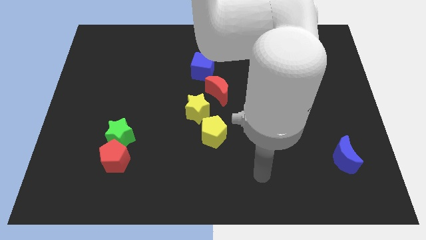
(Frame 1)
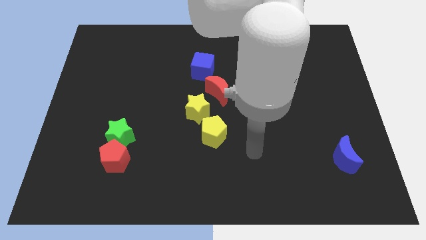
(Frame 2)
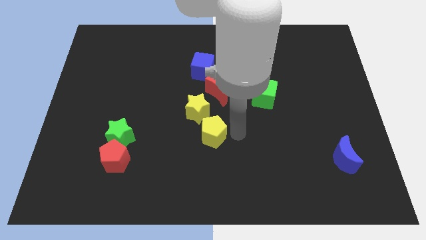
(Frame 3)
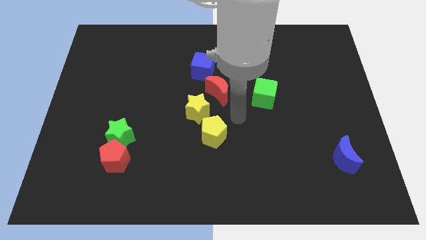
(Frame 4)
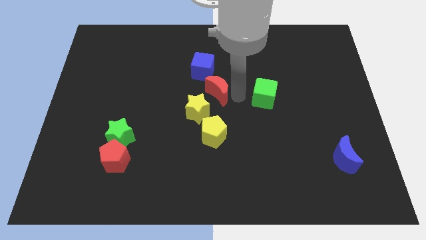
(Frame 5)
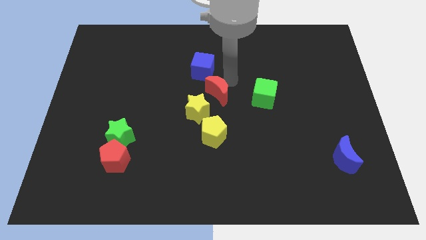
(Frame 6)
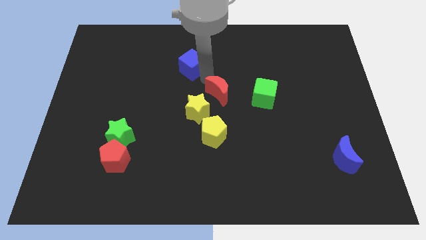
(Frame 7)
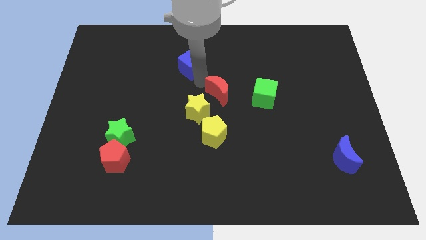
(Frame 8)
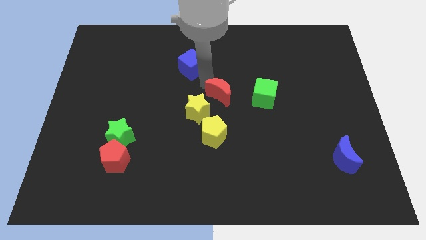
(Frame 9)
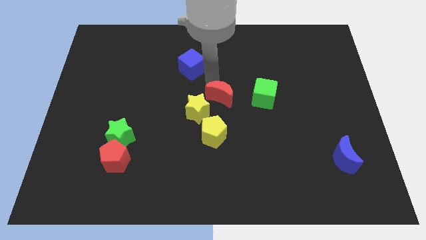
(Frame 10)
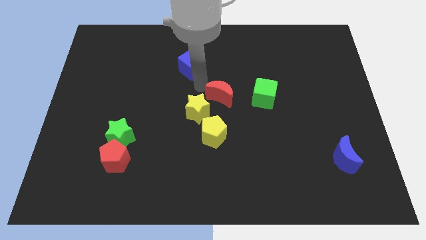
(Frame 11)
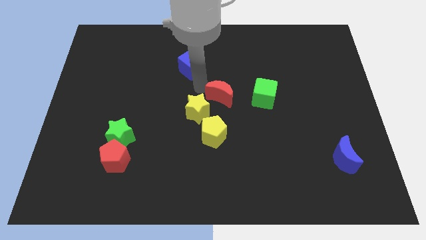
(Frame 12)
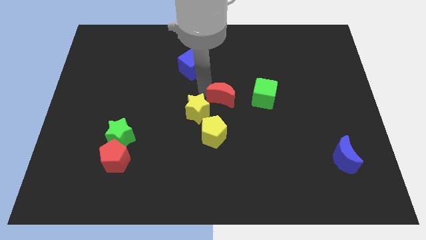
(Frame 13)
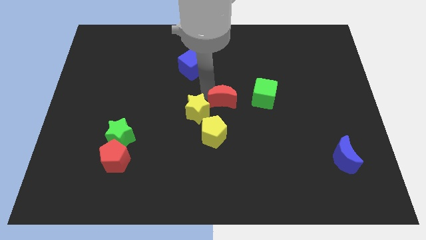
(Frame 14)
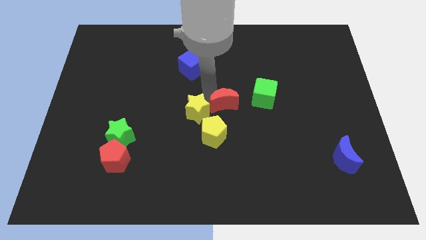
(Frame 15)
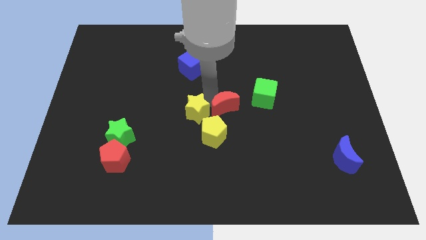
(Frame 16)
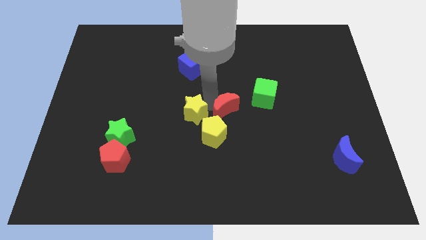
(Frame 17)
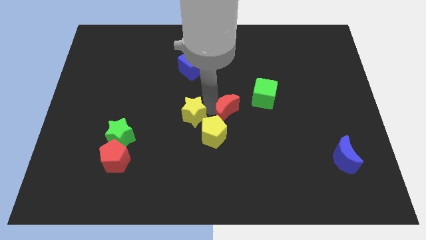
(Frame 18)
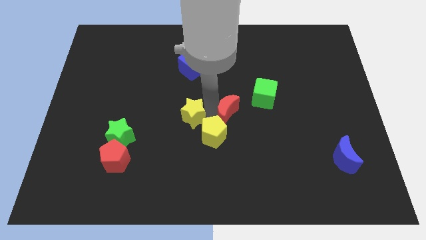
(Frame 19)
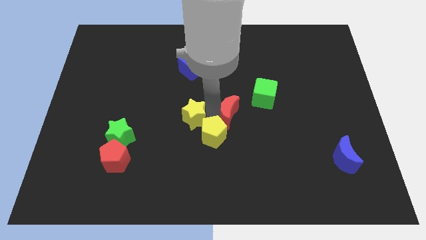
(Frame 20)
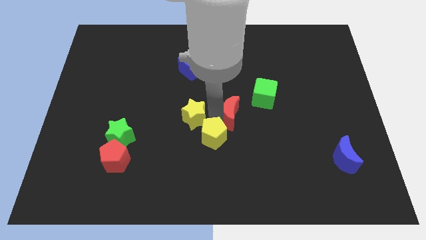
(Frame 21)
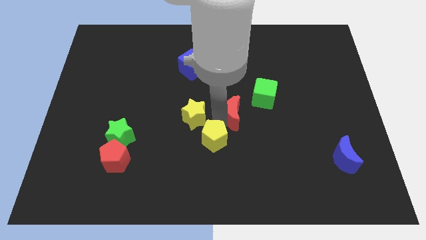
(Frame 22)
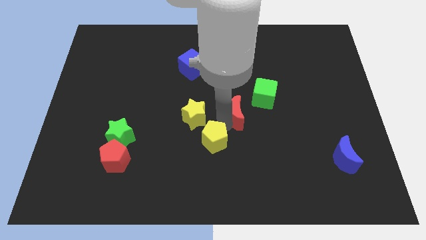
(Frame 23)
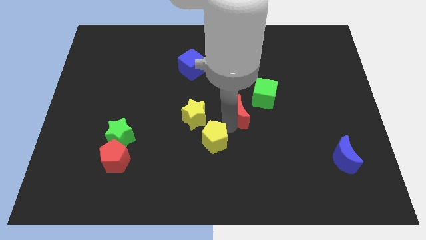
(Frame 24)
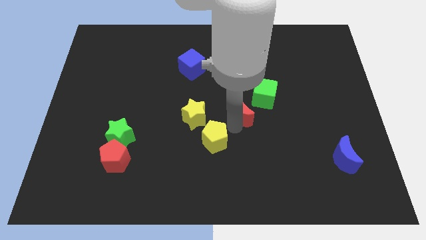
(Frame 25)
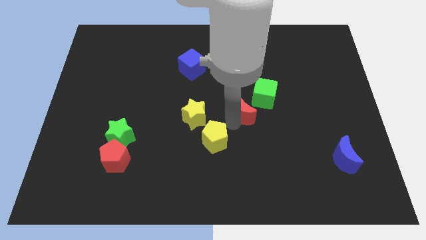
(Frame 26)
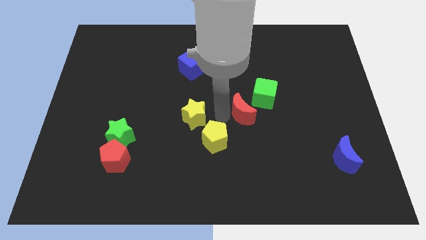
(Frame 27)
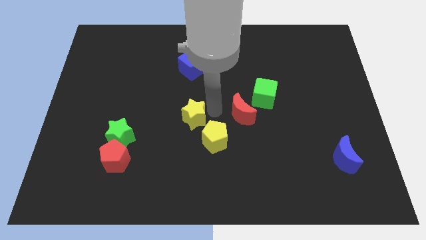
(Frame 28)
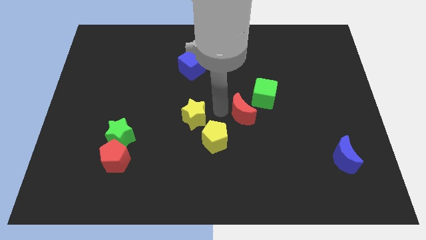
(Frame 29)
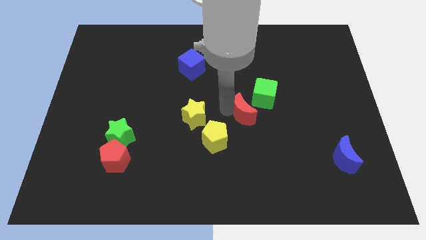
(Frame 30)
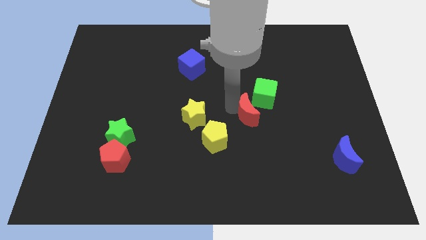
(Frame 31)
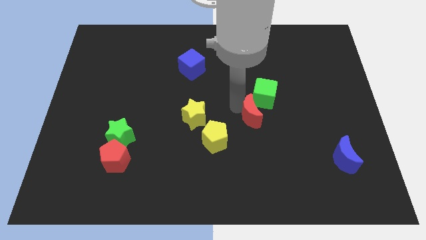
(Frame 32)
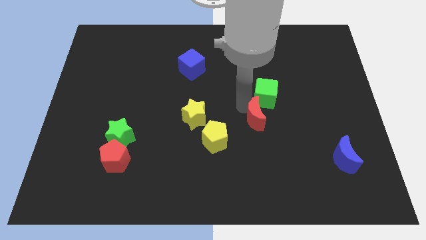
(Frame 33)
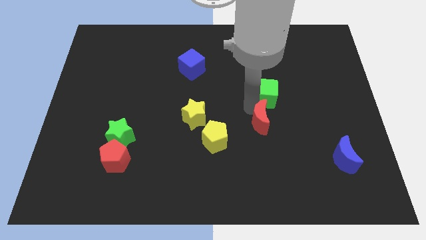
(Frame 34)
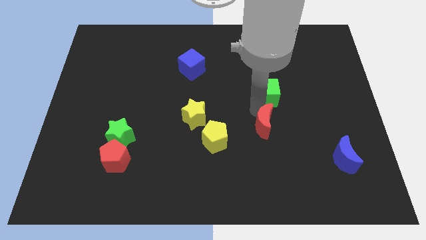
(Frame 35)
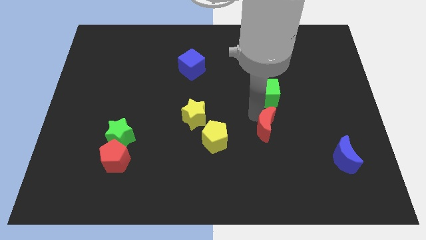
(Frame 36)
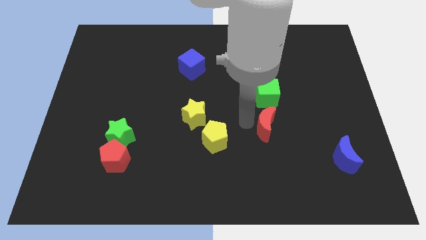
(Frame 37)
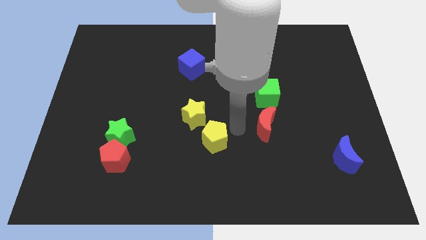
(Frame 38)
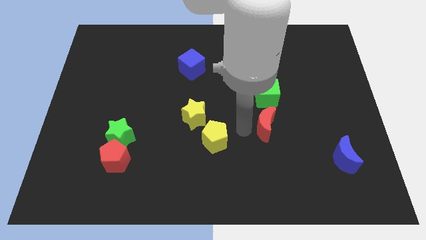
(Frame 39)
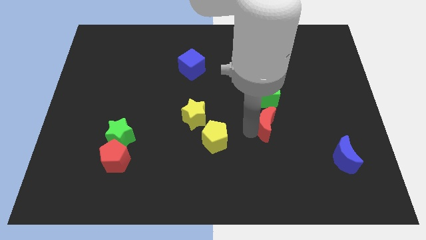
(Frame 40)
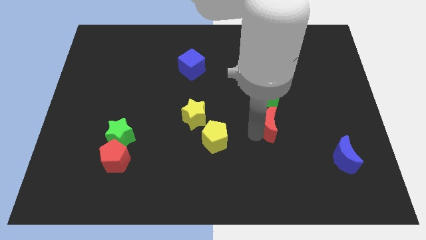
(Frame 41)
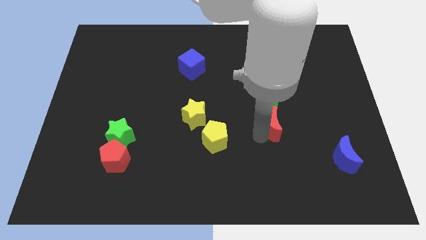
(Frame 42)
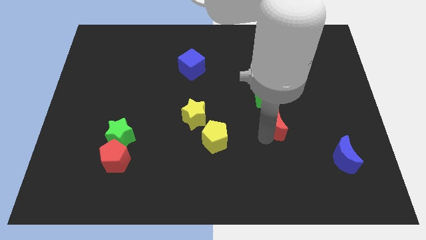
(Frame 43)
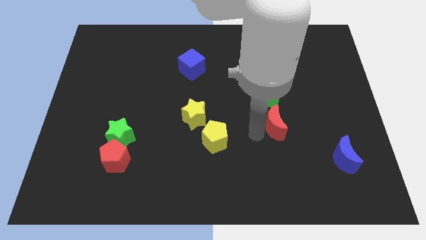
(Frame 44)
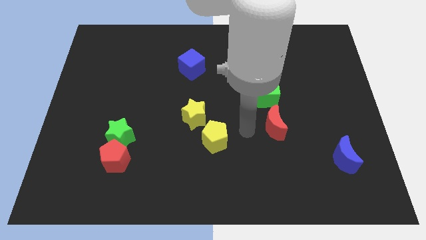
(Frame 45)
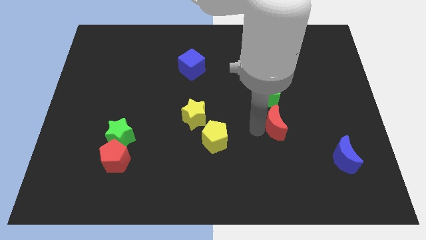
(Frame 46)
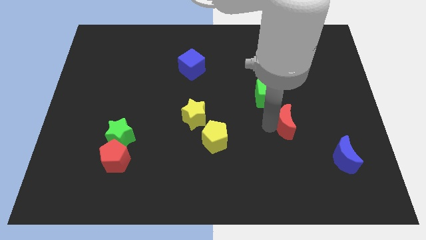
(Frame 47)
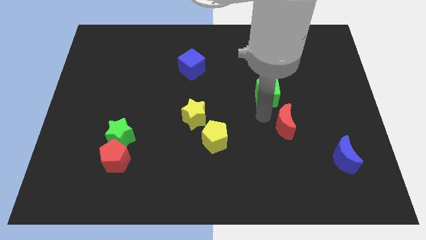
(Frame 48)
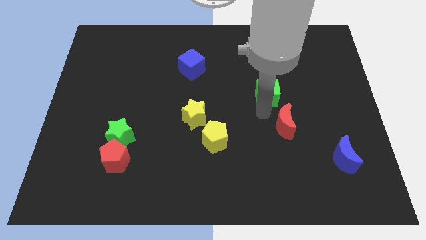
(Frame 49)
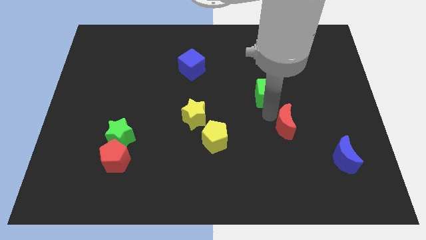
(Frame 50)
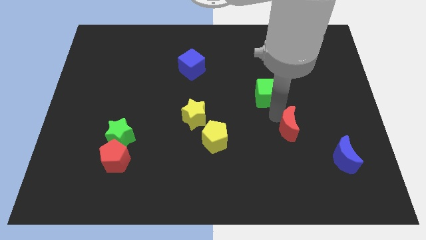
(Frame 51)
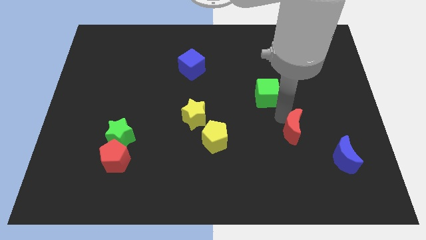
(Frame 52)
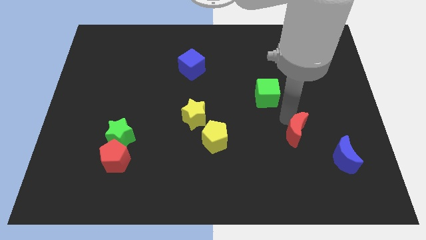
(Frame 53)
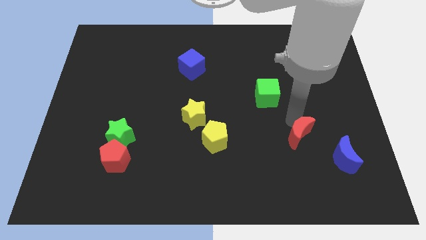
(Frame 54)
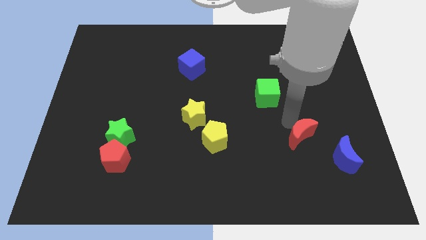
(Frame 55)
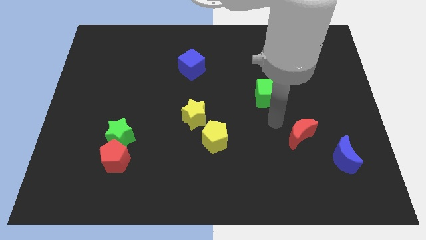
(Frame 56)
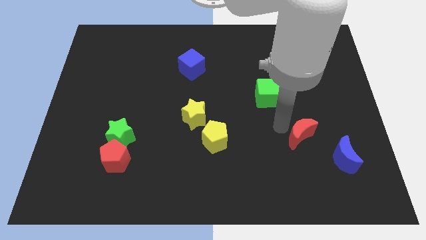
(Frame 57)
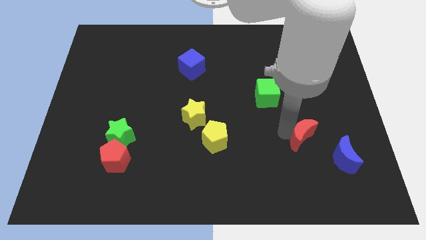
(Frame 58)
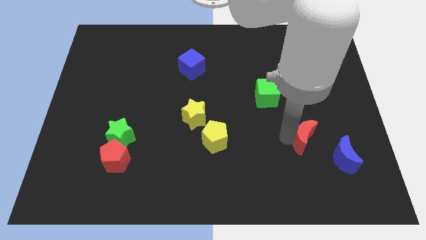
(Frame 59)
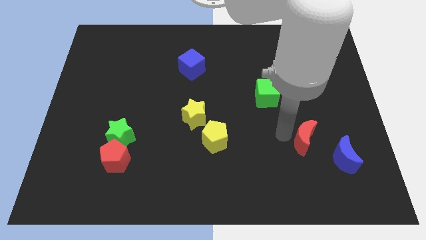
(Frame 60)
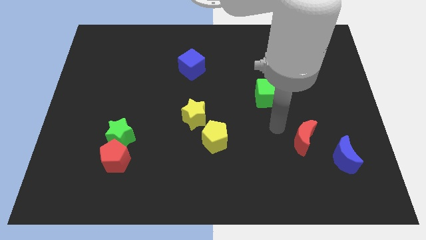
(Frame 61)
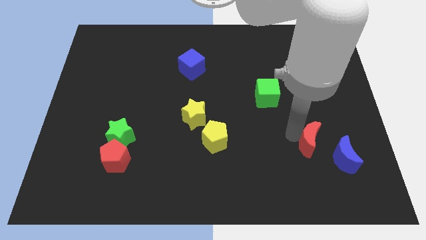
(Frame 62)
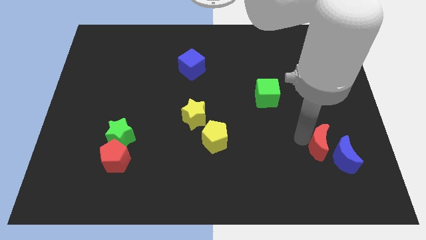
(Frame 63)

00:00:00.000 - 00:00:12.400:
push the red moon close to the blue moon

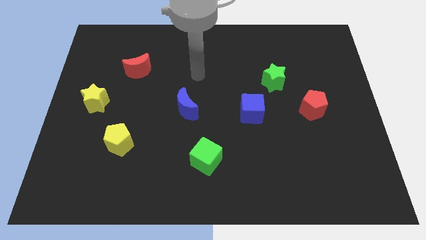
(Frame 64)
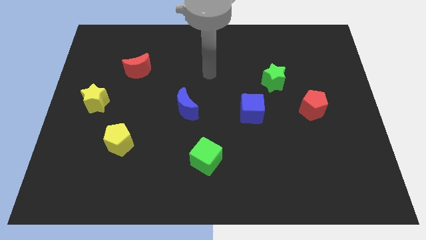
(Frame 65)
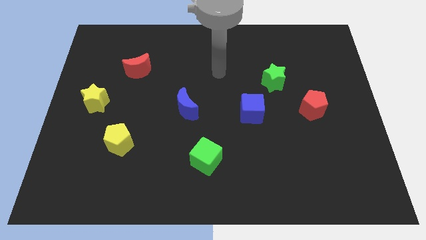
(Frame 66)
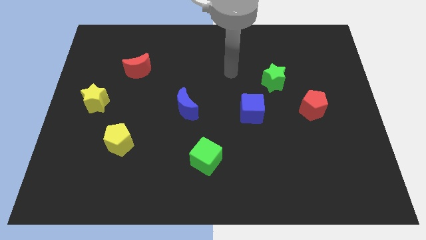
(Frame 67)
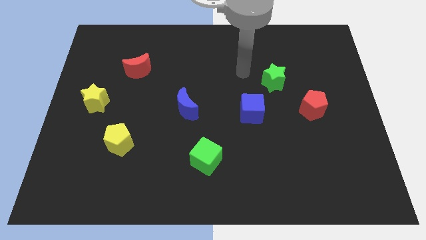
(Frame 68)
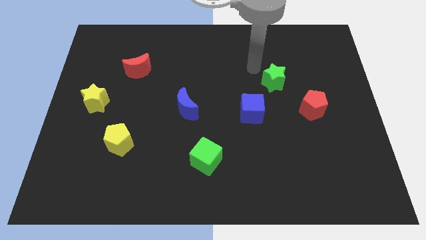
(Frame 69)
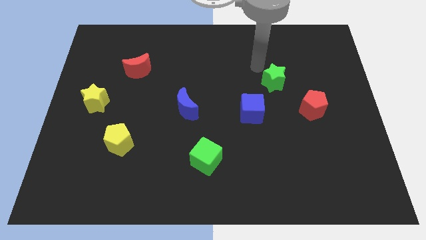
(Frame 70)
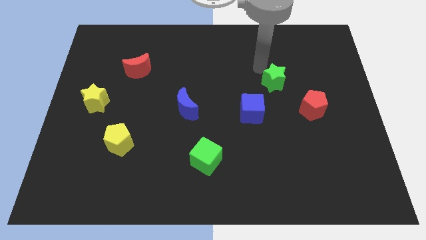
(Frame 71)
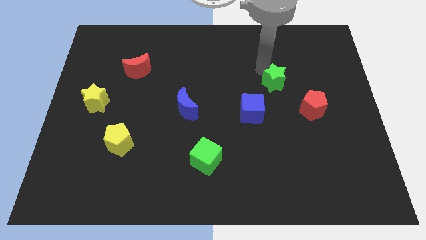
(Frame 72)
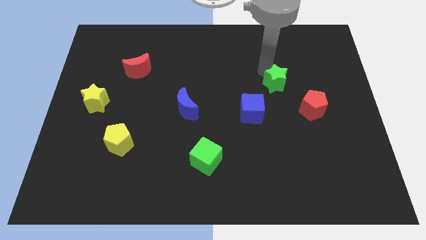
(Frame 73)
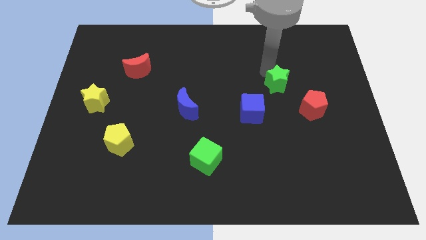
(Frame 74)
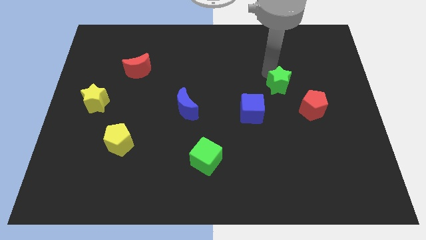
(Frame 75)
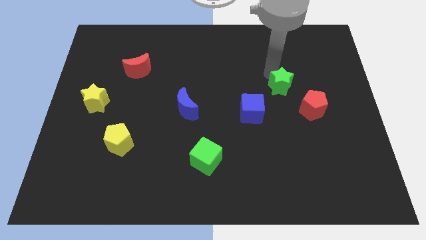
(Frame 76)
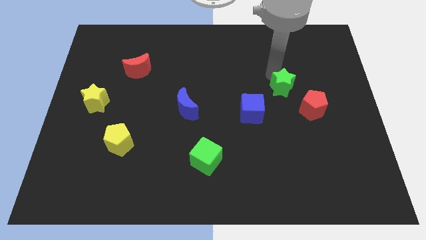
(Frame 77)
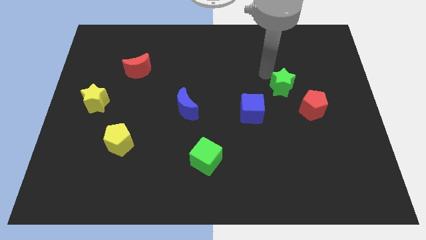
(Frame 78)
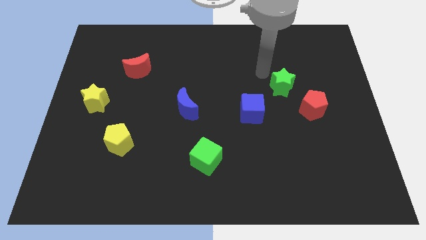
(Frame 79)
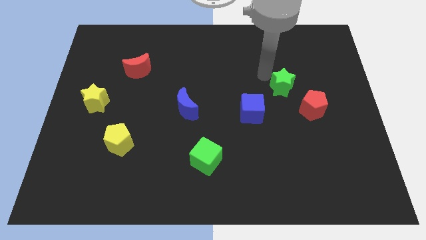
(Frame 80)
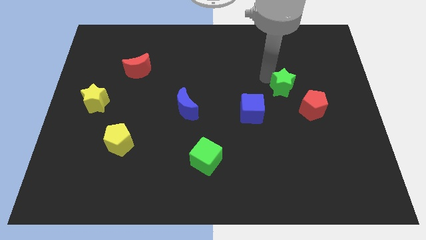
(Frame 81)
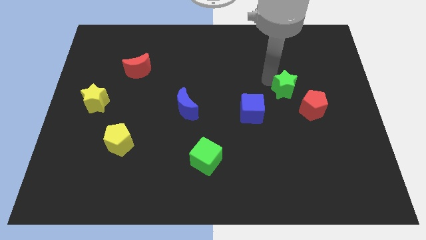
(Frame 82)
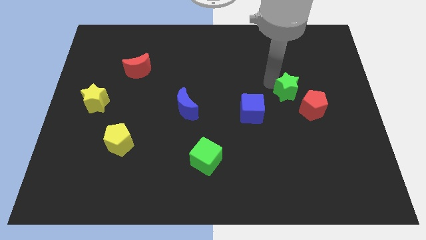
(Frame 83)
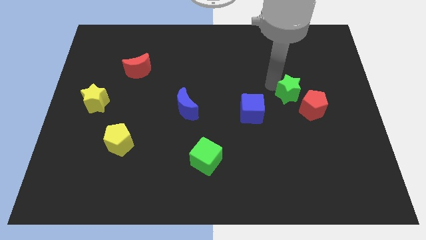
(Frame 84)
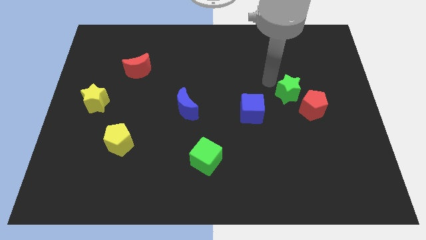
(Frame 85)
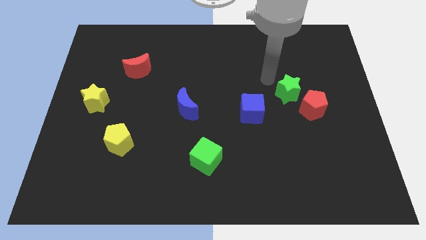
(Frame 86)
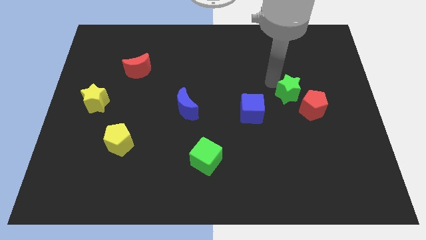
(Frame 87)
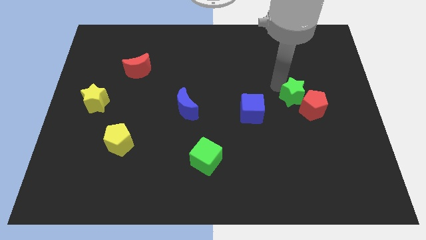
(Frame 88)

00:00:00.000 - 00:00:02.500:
push the green star towards the red pentagon
